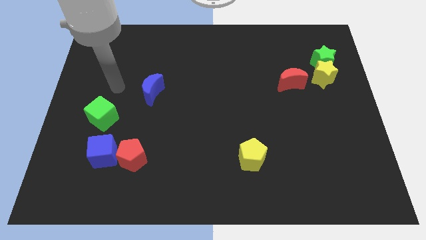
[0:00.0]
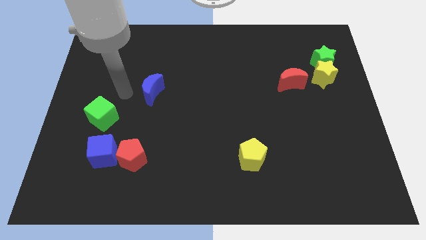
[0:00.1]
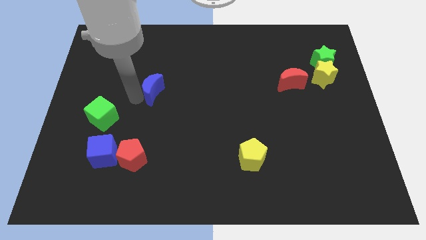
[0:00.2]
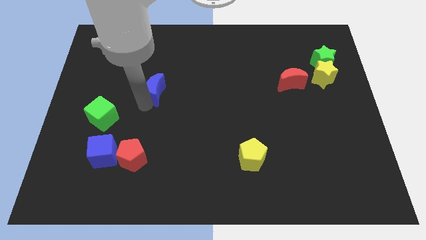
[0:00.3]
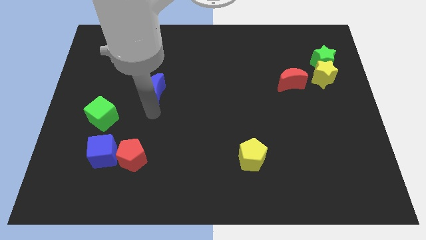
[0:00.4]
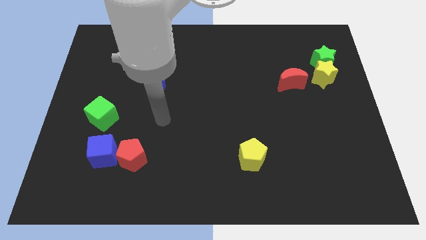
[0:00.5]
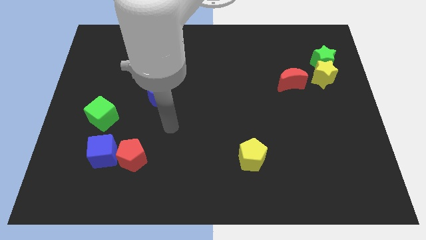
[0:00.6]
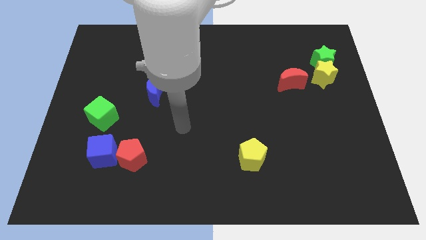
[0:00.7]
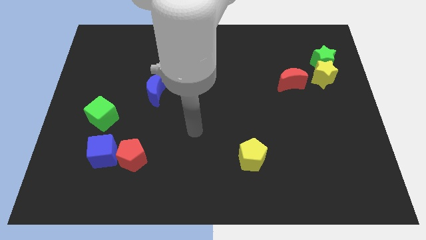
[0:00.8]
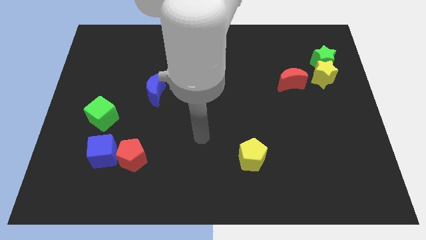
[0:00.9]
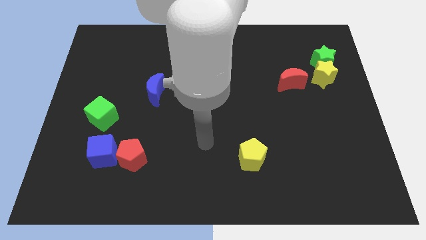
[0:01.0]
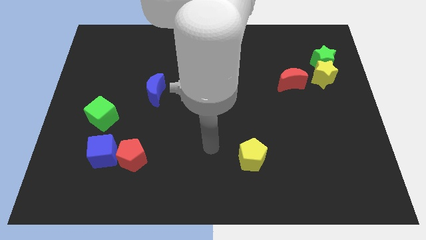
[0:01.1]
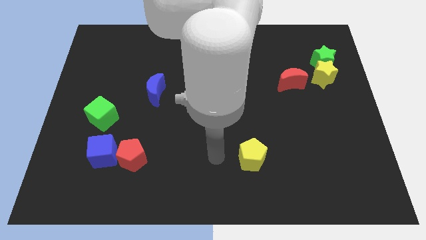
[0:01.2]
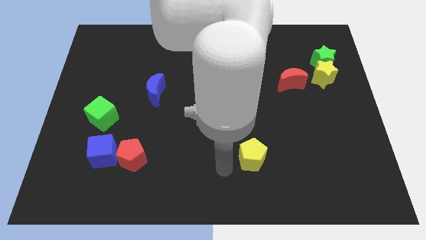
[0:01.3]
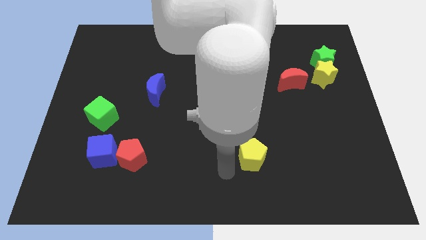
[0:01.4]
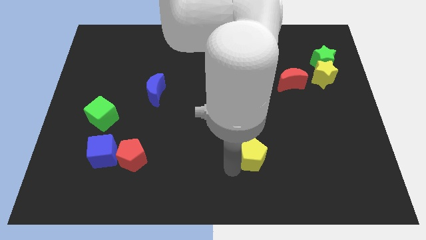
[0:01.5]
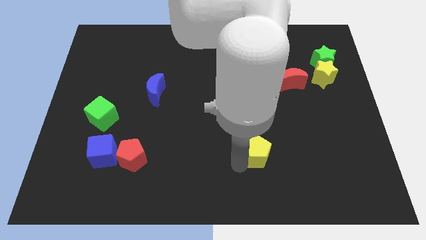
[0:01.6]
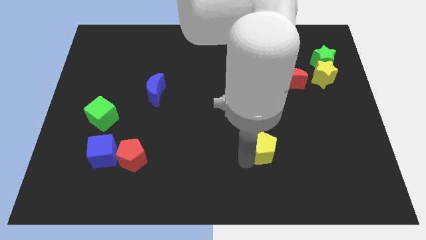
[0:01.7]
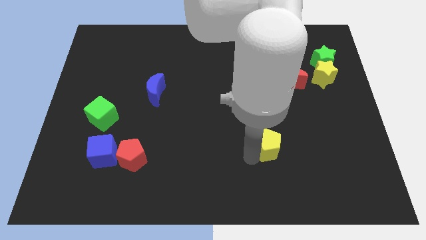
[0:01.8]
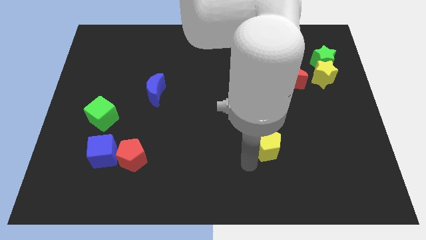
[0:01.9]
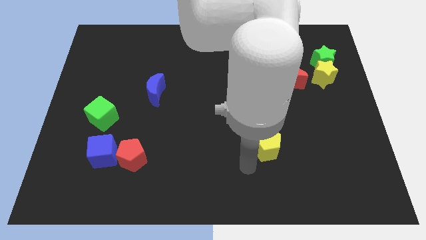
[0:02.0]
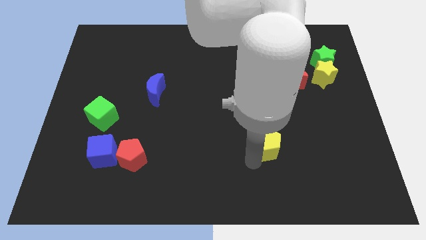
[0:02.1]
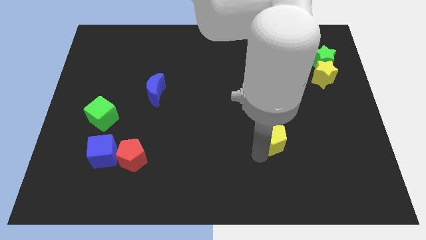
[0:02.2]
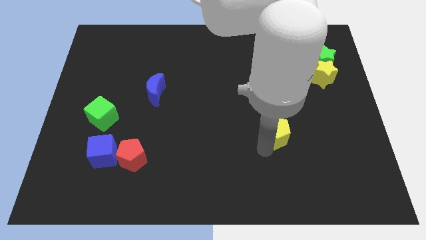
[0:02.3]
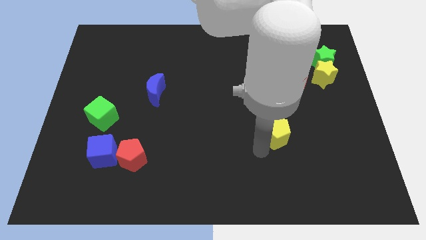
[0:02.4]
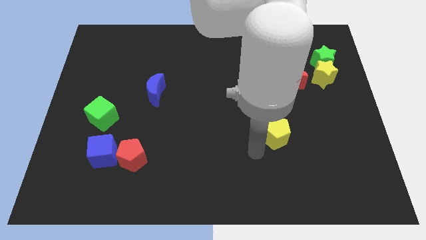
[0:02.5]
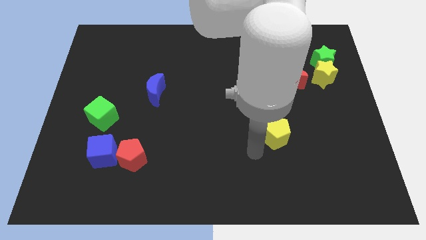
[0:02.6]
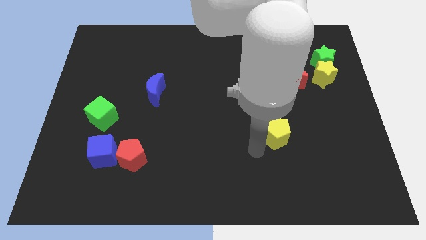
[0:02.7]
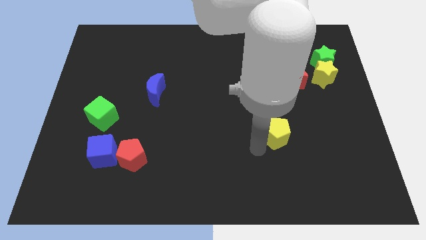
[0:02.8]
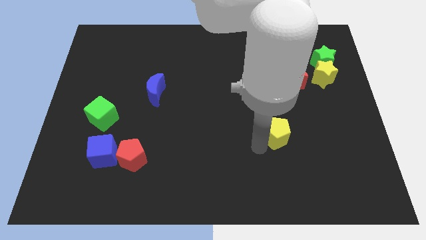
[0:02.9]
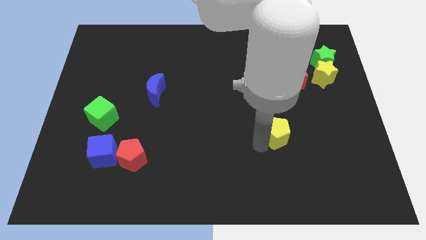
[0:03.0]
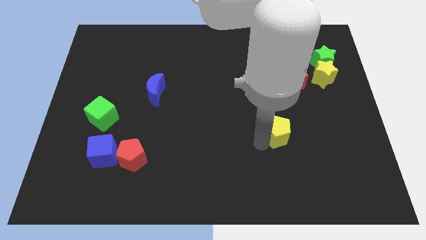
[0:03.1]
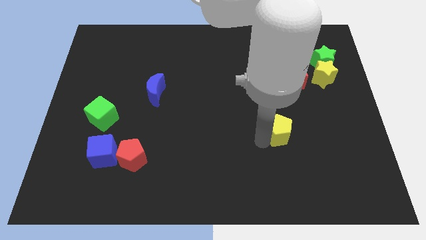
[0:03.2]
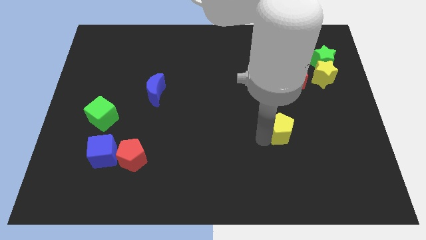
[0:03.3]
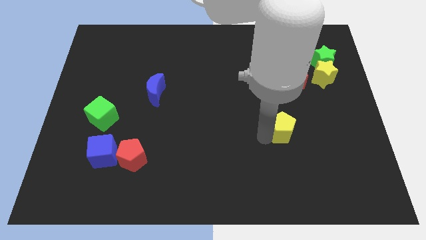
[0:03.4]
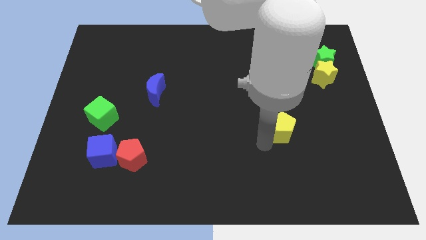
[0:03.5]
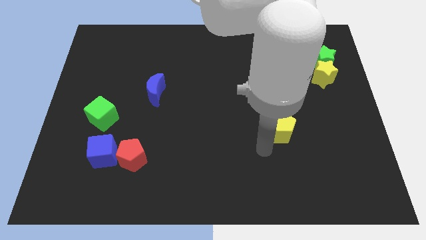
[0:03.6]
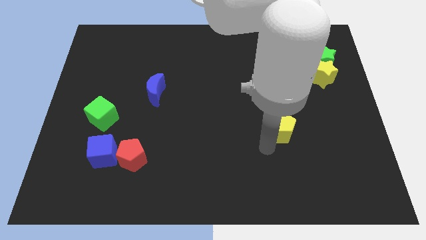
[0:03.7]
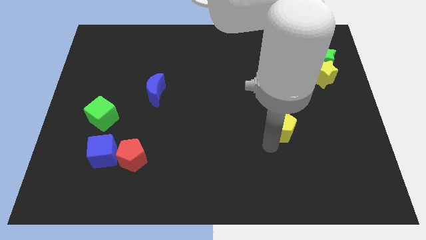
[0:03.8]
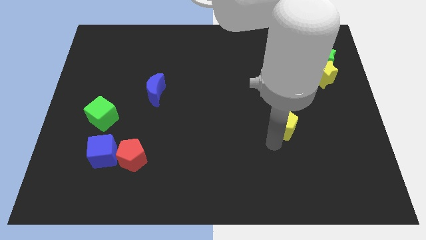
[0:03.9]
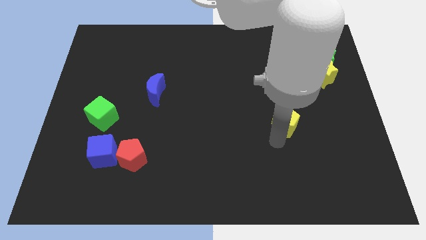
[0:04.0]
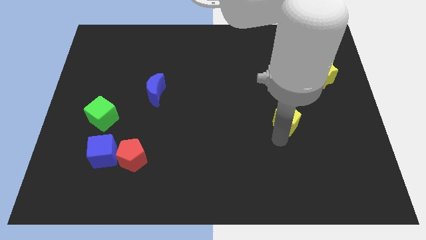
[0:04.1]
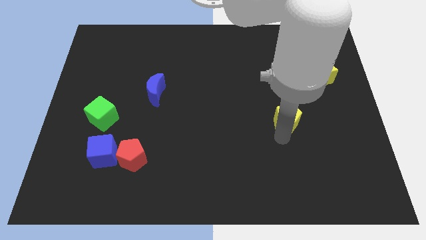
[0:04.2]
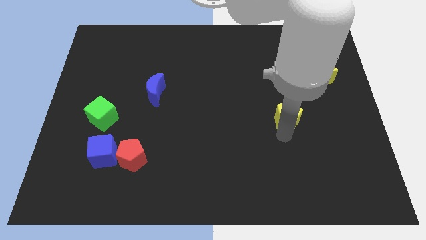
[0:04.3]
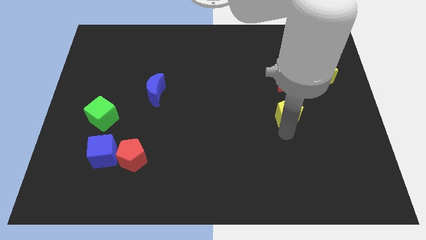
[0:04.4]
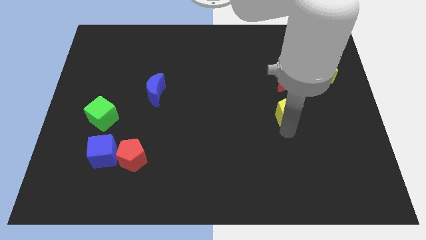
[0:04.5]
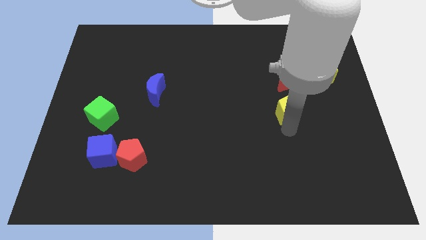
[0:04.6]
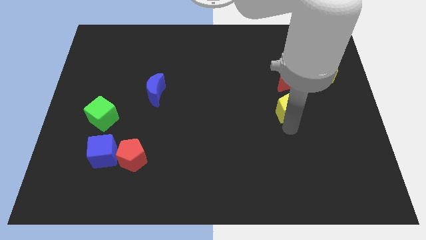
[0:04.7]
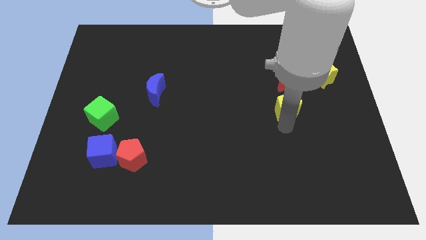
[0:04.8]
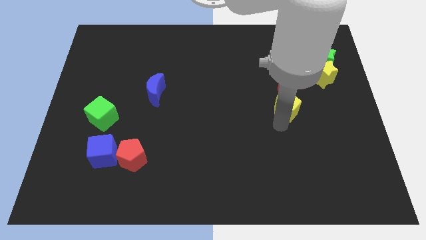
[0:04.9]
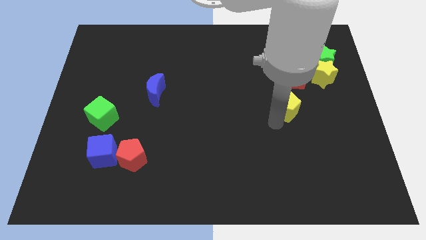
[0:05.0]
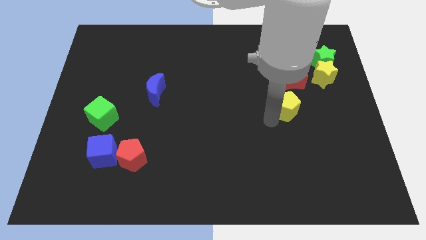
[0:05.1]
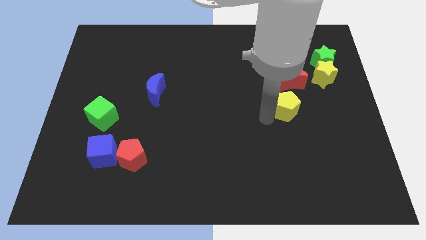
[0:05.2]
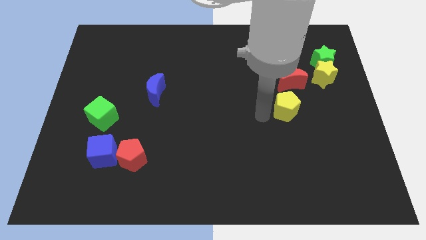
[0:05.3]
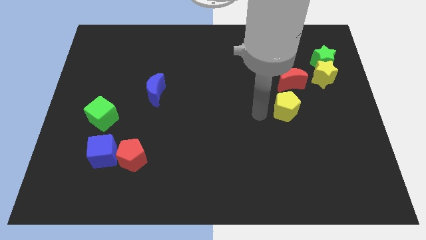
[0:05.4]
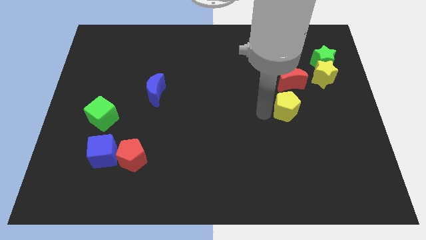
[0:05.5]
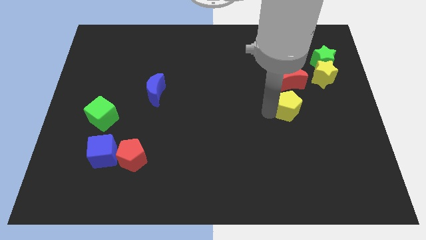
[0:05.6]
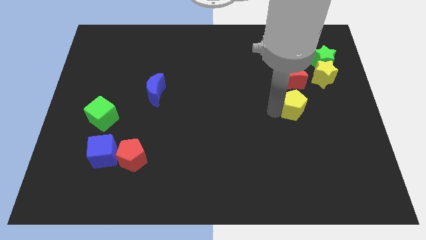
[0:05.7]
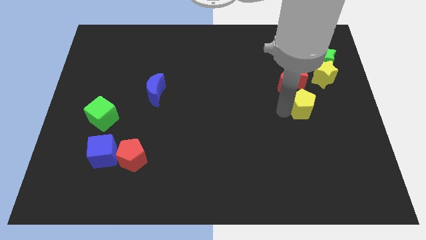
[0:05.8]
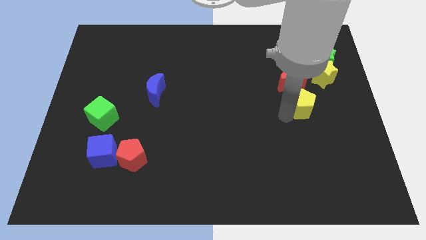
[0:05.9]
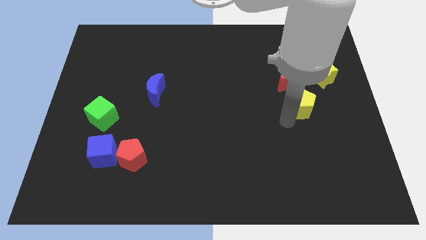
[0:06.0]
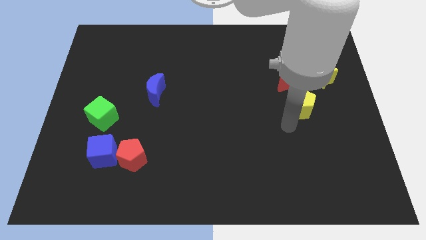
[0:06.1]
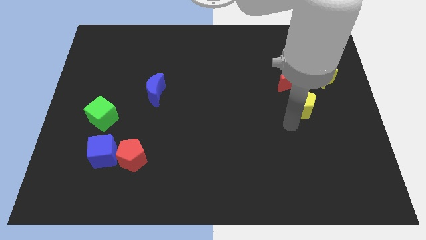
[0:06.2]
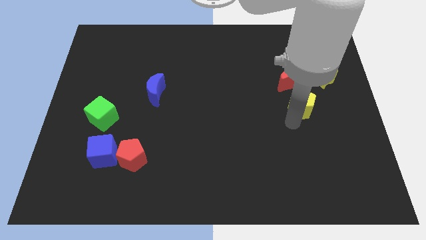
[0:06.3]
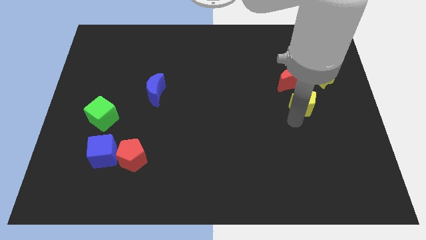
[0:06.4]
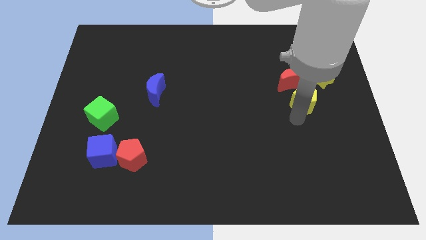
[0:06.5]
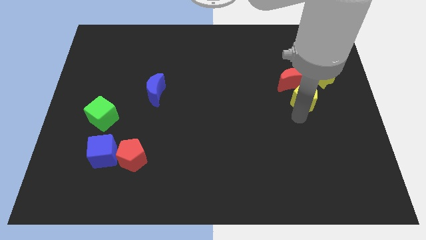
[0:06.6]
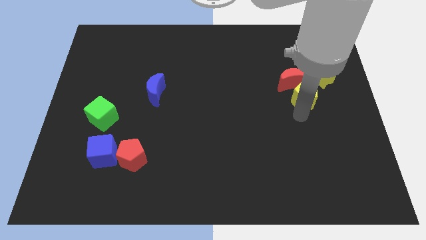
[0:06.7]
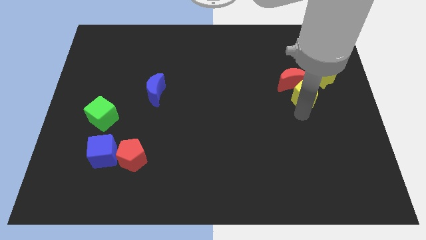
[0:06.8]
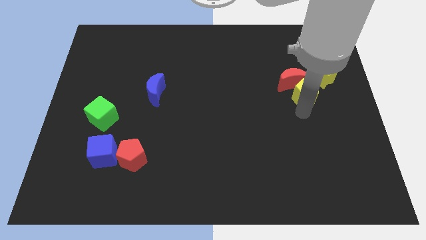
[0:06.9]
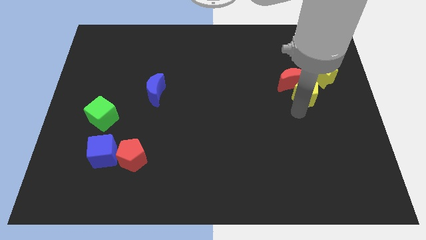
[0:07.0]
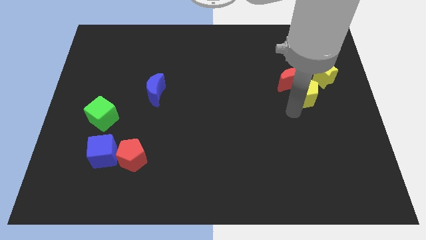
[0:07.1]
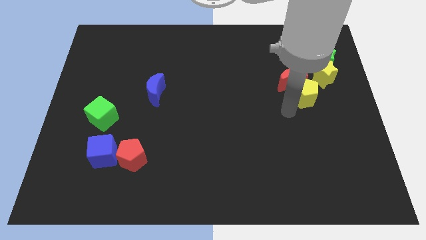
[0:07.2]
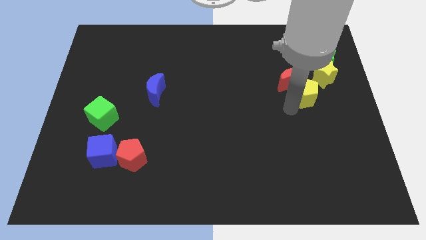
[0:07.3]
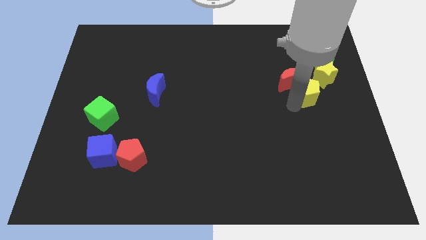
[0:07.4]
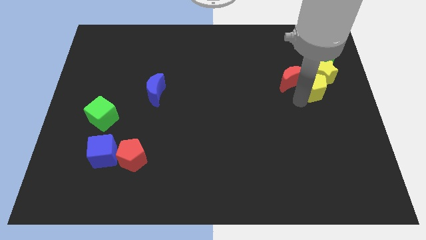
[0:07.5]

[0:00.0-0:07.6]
slide the yellow pentagon close to the yellow star

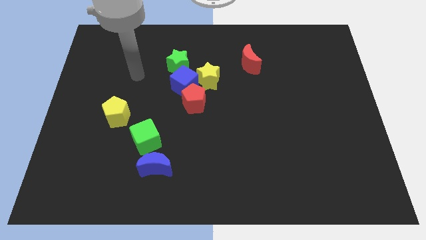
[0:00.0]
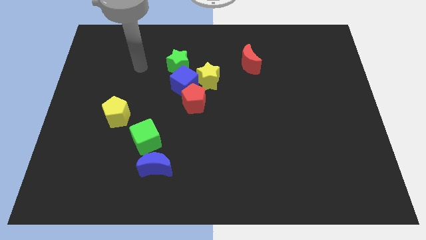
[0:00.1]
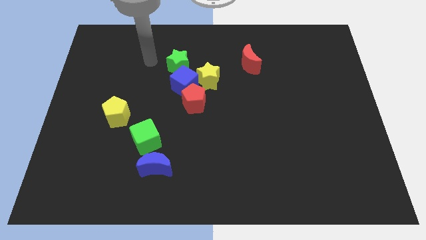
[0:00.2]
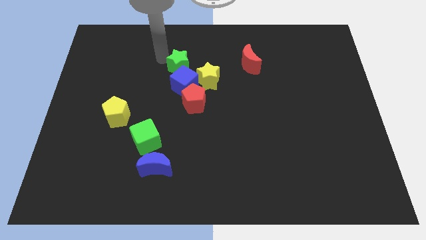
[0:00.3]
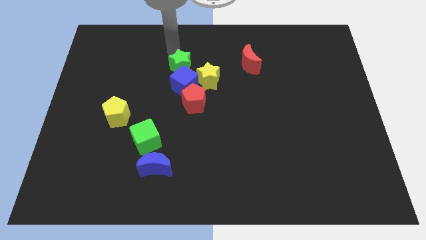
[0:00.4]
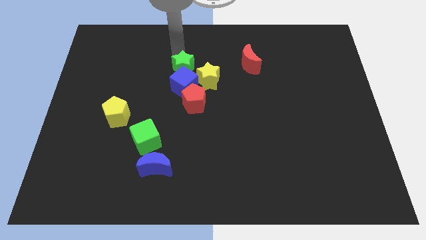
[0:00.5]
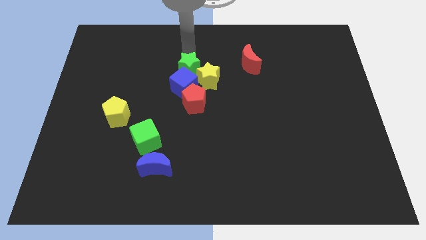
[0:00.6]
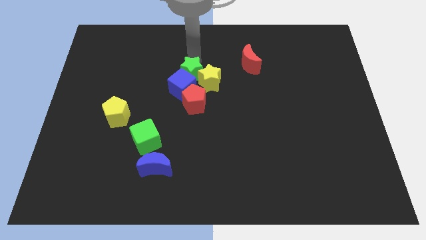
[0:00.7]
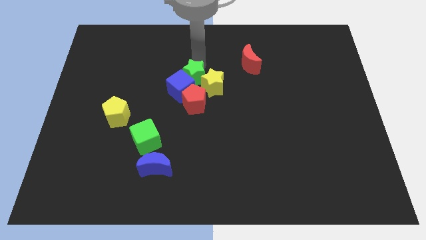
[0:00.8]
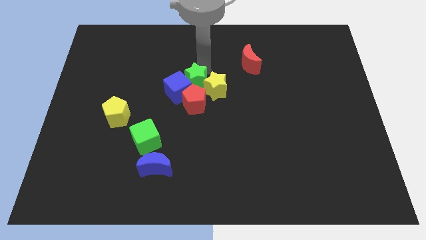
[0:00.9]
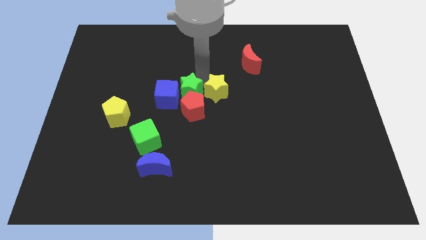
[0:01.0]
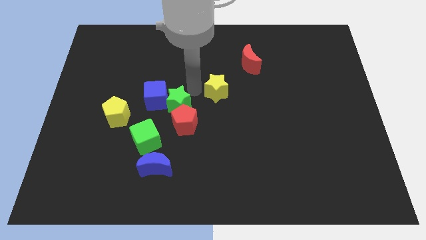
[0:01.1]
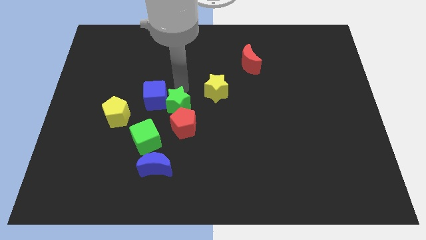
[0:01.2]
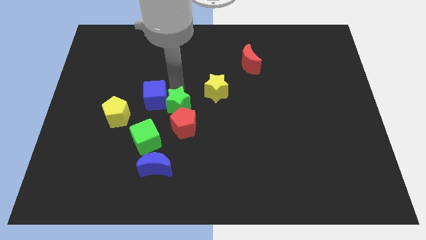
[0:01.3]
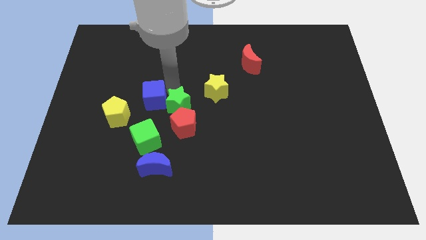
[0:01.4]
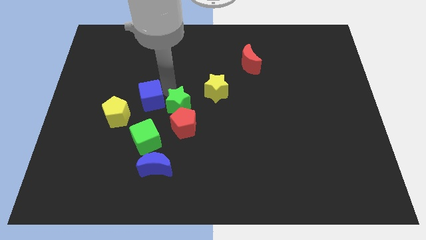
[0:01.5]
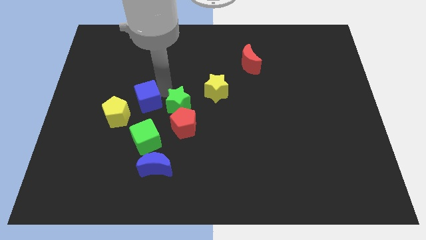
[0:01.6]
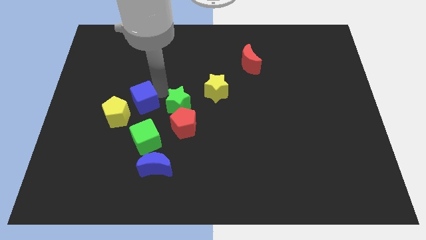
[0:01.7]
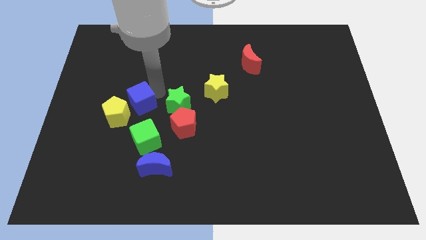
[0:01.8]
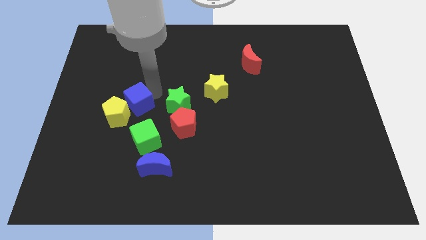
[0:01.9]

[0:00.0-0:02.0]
push the blue cube next to the yellow pentagon
